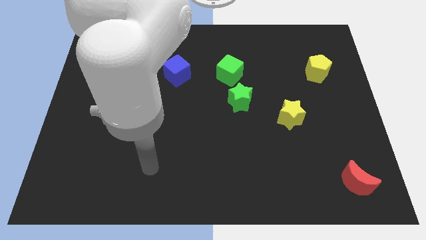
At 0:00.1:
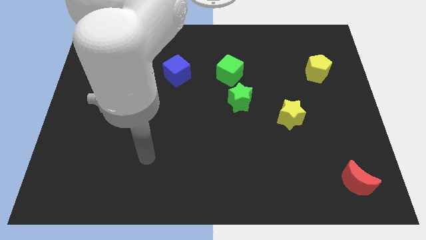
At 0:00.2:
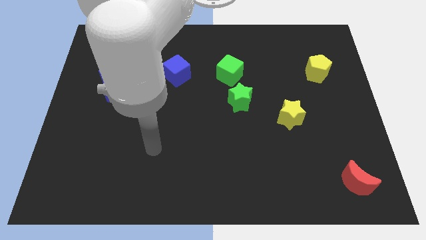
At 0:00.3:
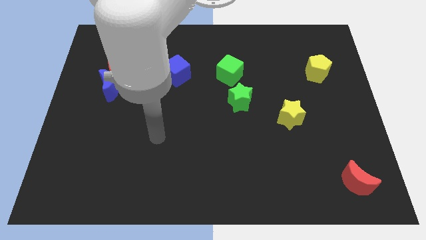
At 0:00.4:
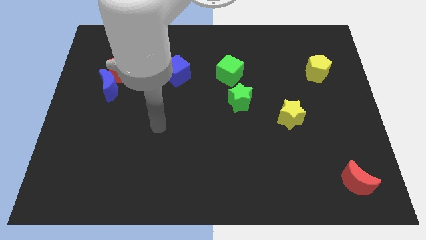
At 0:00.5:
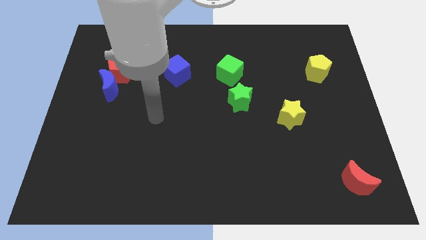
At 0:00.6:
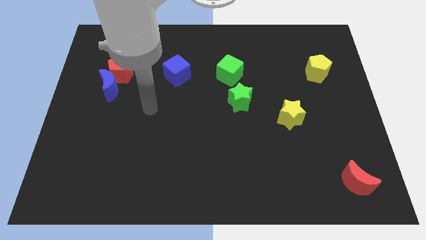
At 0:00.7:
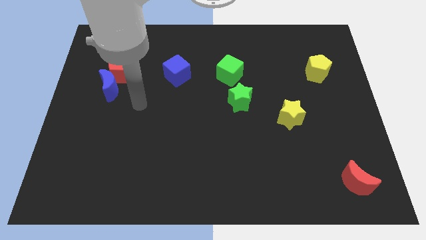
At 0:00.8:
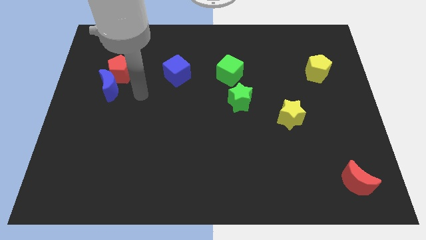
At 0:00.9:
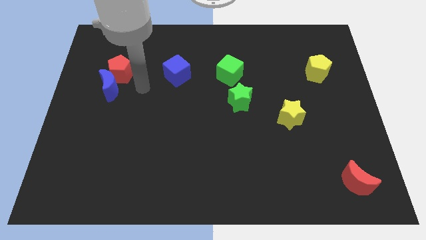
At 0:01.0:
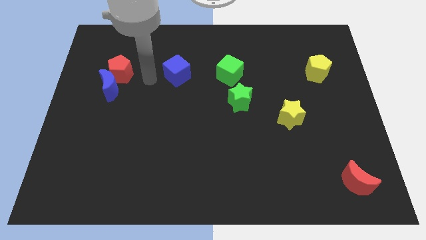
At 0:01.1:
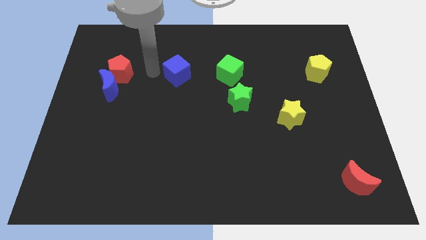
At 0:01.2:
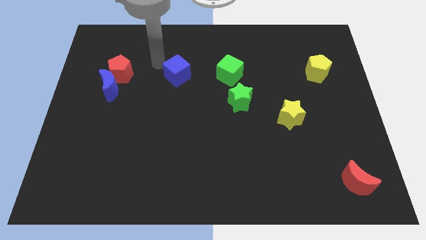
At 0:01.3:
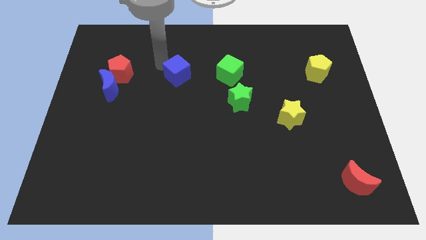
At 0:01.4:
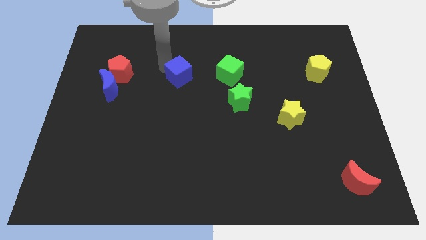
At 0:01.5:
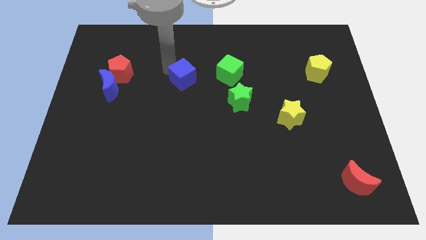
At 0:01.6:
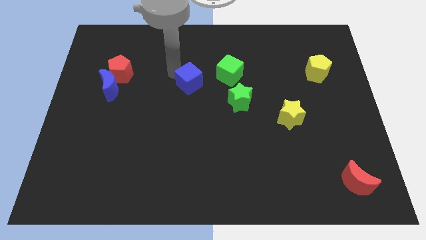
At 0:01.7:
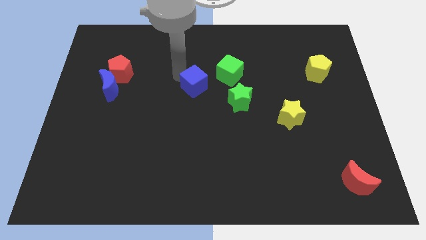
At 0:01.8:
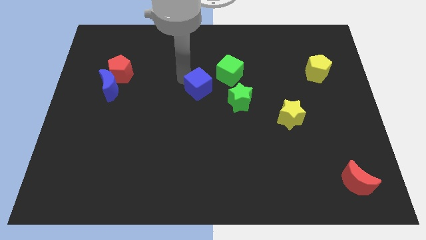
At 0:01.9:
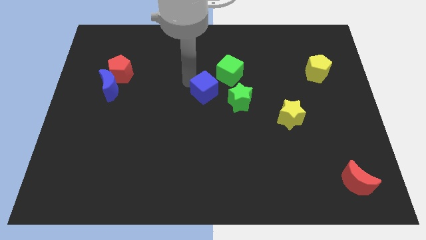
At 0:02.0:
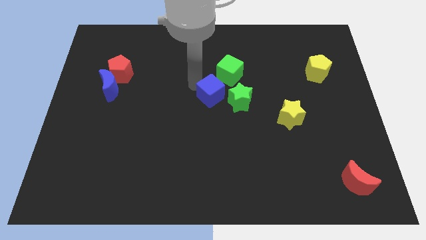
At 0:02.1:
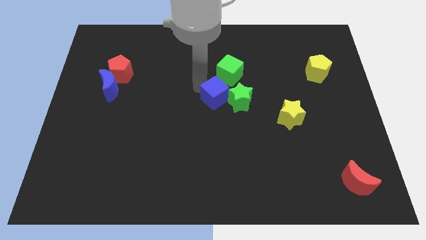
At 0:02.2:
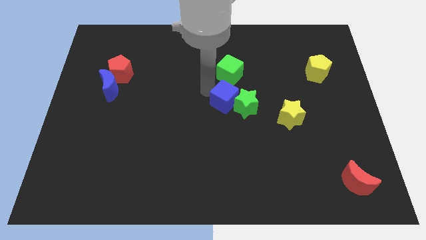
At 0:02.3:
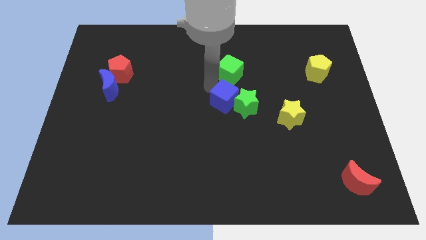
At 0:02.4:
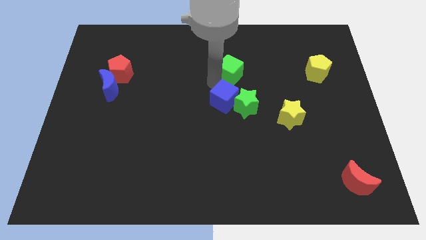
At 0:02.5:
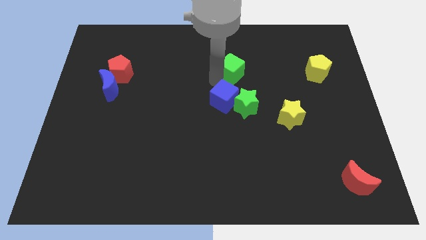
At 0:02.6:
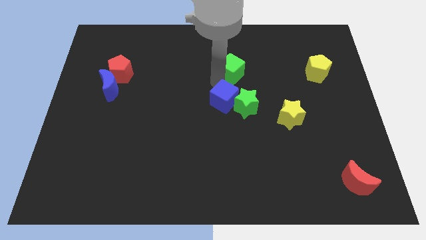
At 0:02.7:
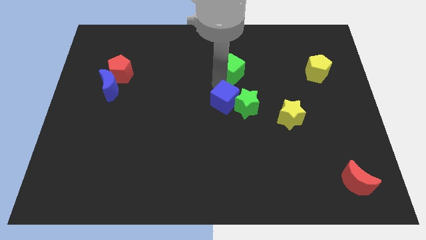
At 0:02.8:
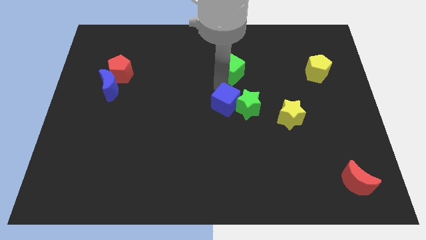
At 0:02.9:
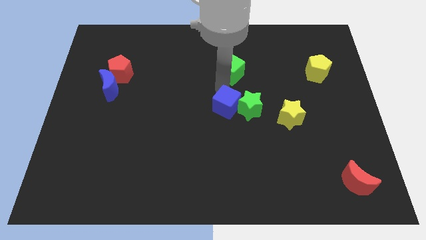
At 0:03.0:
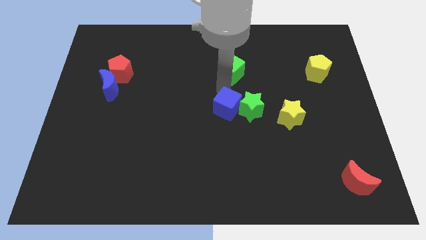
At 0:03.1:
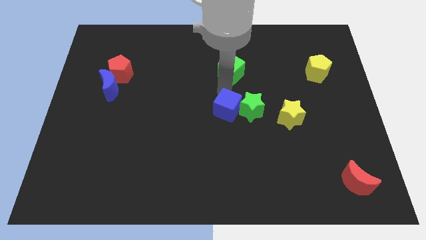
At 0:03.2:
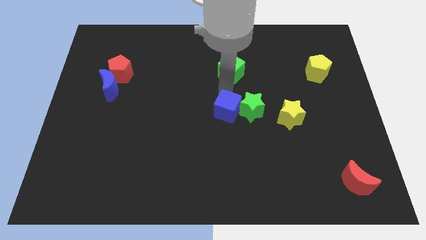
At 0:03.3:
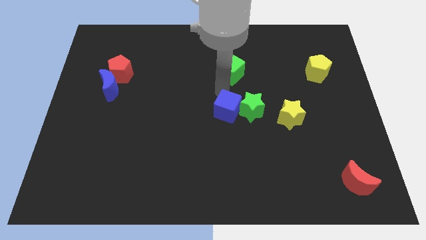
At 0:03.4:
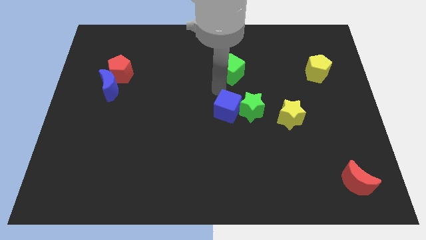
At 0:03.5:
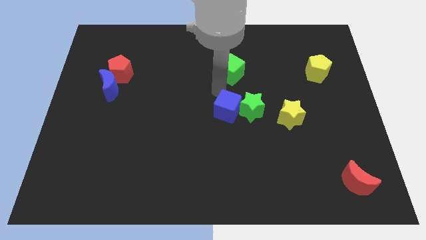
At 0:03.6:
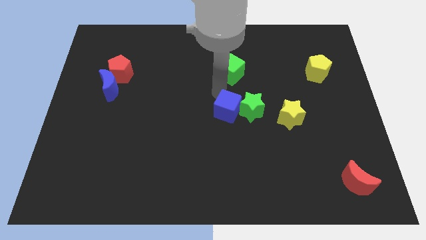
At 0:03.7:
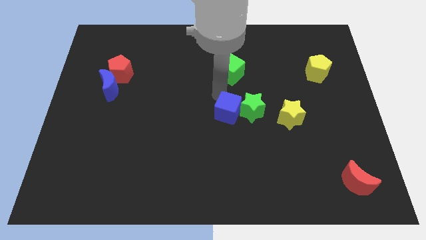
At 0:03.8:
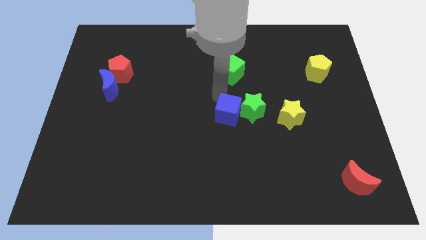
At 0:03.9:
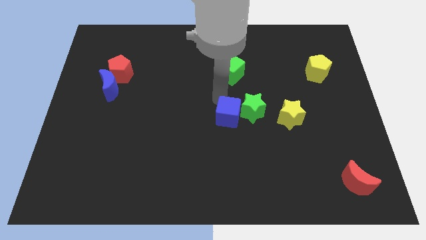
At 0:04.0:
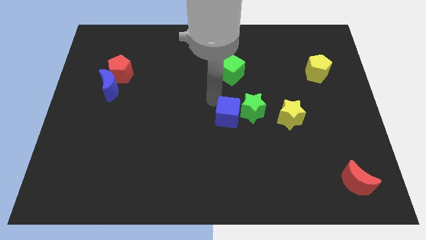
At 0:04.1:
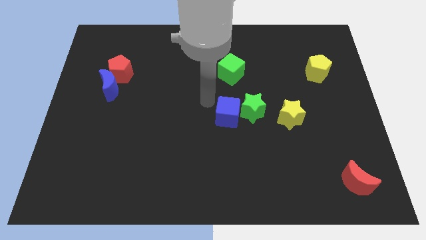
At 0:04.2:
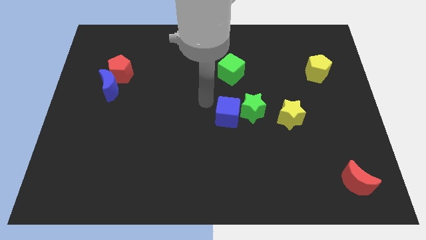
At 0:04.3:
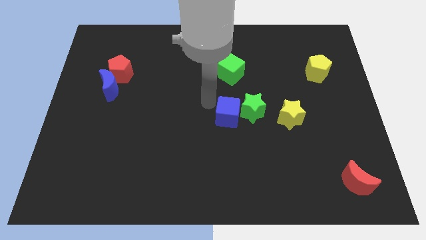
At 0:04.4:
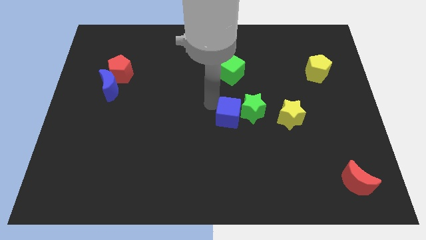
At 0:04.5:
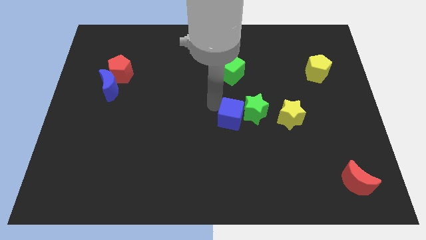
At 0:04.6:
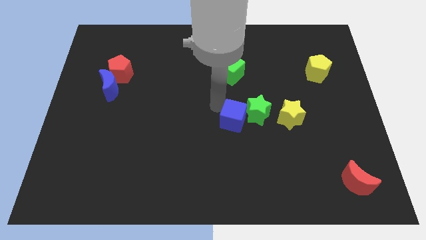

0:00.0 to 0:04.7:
slide the blue cube downwards and to the right diagonally

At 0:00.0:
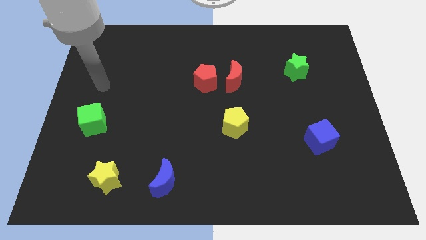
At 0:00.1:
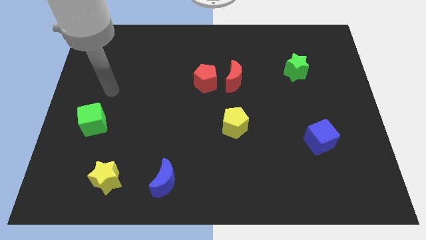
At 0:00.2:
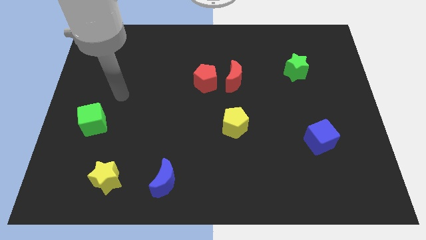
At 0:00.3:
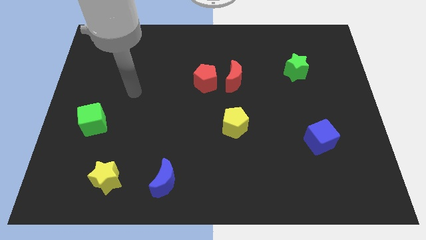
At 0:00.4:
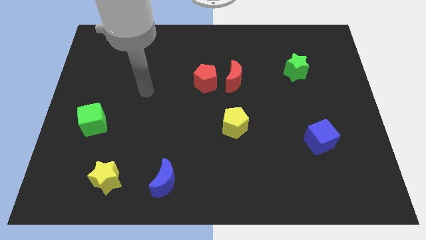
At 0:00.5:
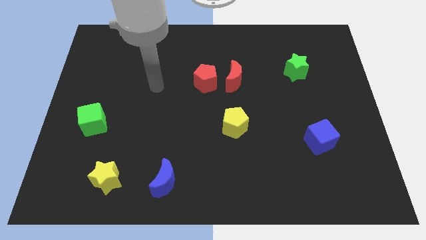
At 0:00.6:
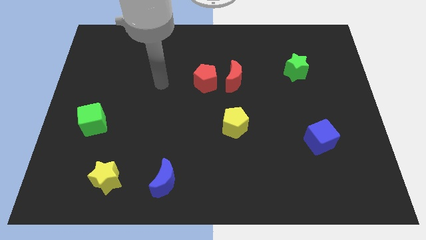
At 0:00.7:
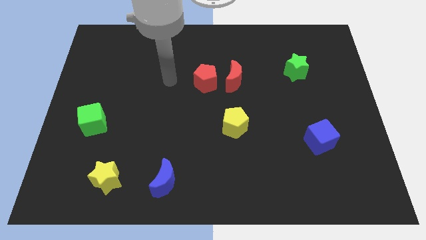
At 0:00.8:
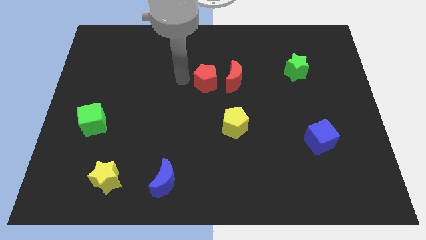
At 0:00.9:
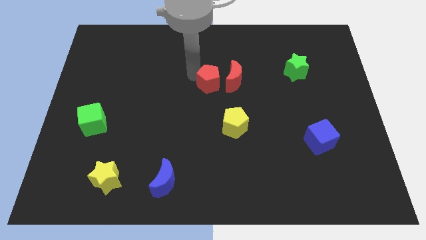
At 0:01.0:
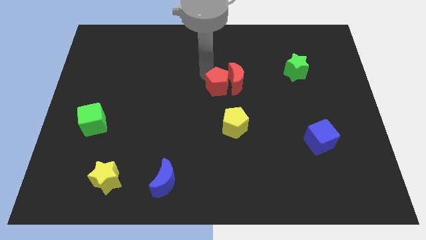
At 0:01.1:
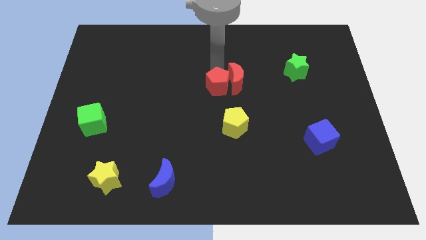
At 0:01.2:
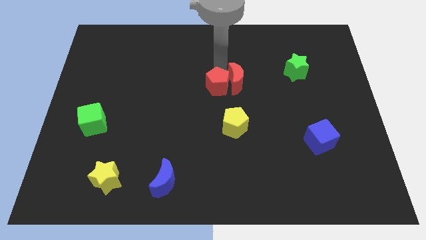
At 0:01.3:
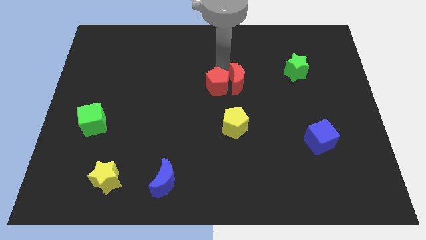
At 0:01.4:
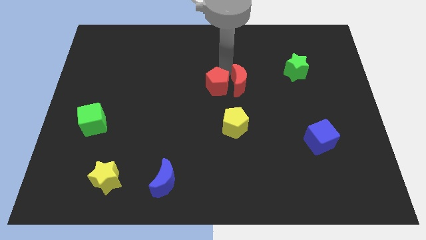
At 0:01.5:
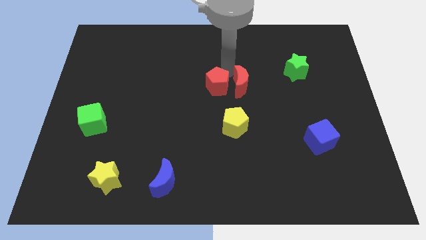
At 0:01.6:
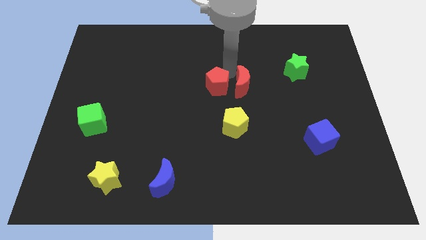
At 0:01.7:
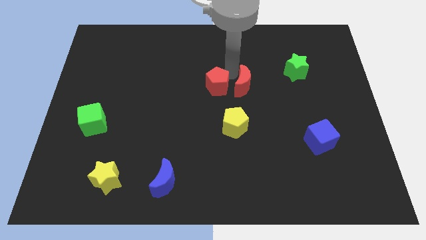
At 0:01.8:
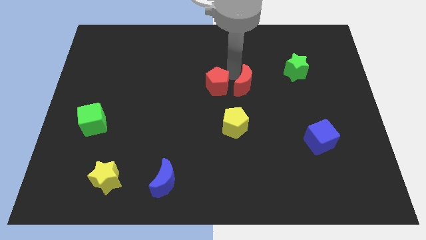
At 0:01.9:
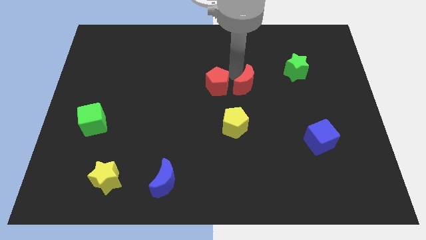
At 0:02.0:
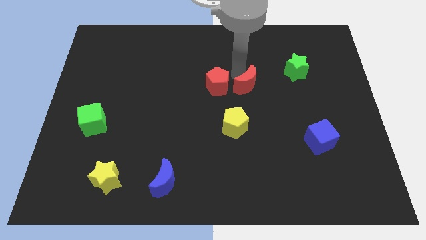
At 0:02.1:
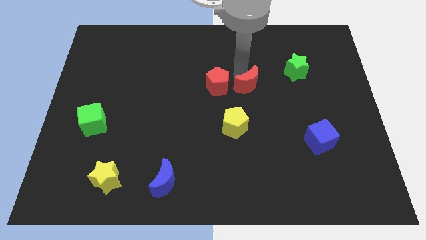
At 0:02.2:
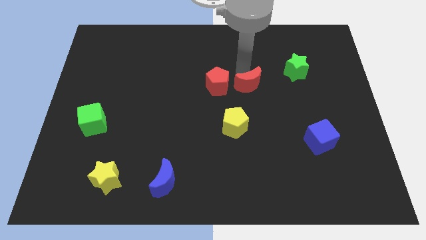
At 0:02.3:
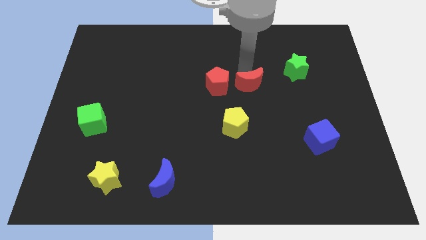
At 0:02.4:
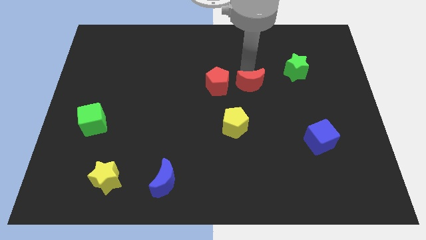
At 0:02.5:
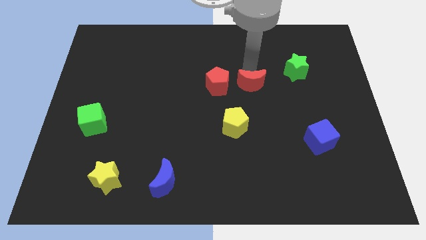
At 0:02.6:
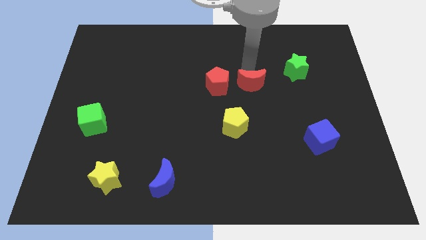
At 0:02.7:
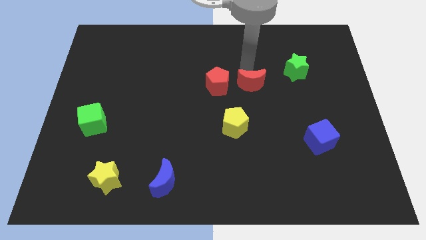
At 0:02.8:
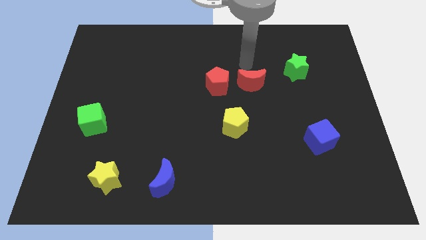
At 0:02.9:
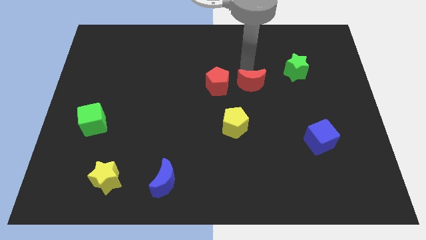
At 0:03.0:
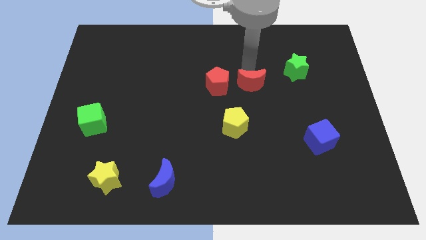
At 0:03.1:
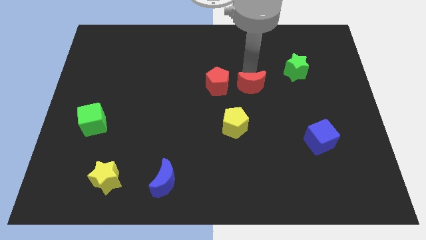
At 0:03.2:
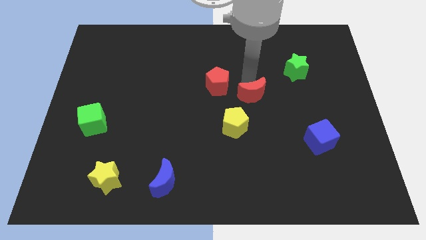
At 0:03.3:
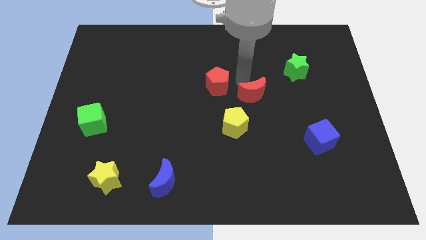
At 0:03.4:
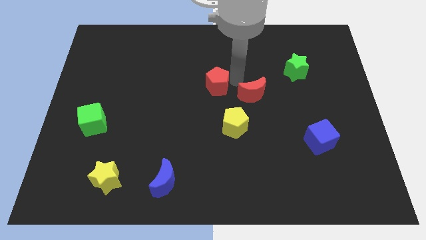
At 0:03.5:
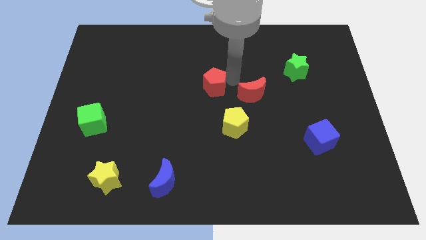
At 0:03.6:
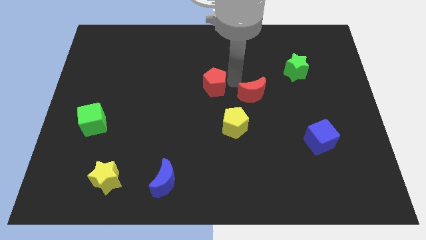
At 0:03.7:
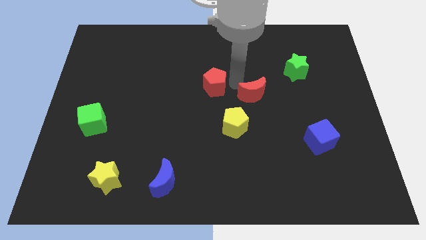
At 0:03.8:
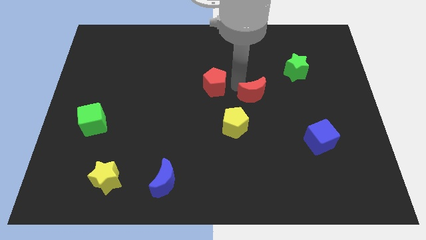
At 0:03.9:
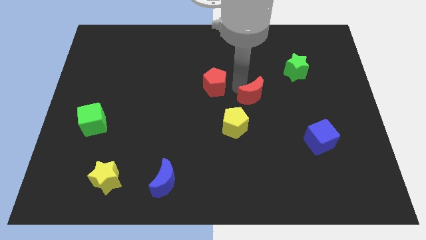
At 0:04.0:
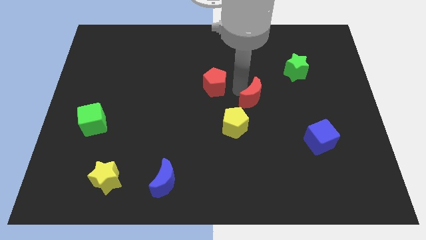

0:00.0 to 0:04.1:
slide the red moon a bit diagonally downwards and to the right
